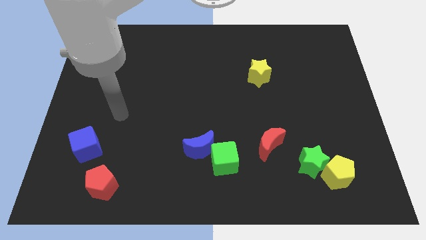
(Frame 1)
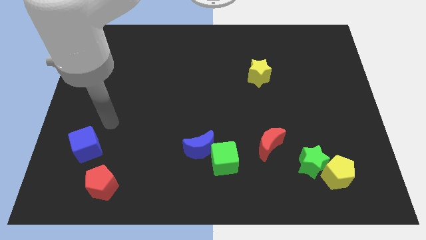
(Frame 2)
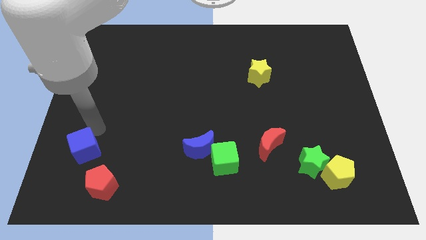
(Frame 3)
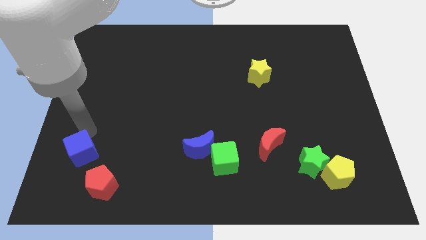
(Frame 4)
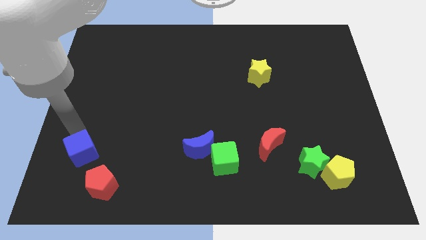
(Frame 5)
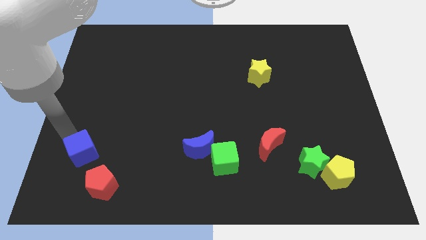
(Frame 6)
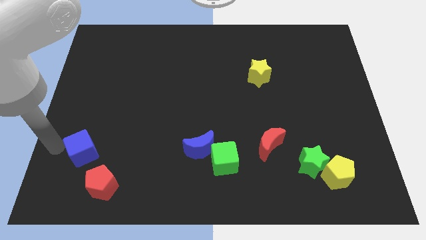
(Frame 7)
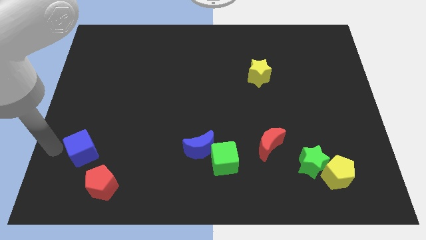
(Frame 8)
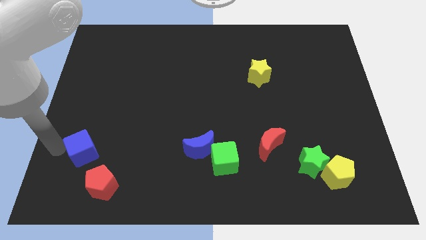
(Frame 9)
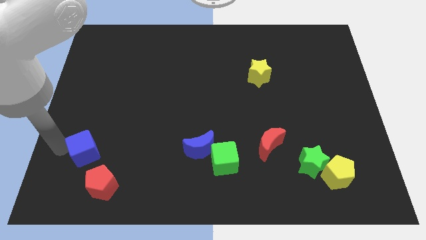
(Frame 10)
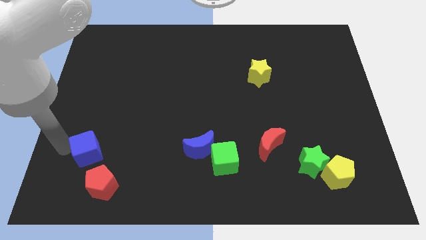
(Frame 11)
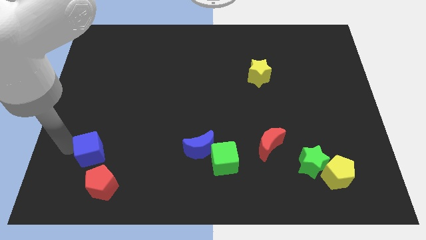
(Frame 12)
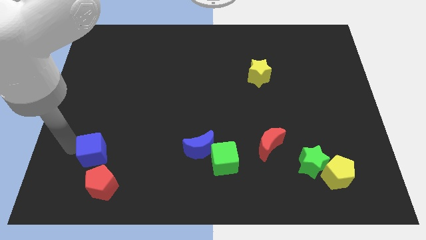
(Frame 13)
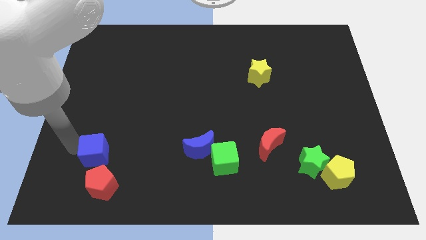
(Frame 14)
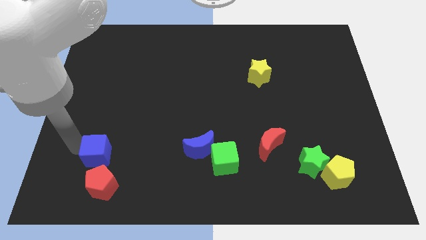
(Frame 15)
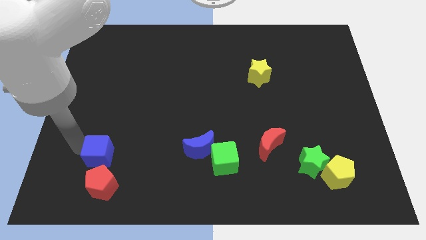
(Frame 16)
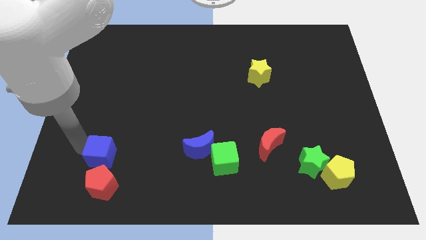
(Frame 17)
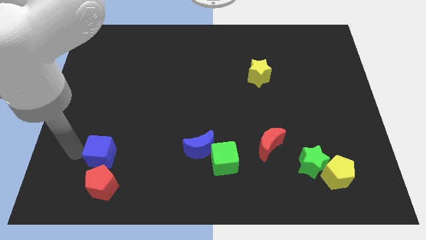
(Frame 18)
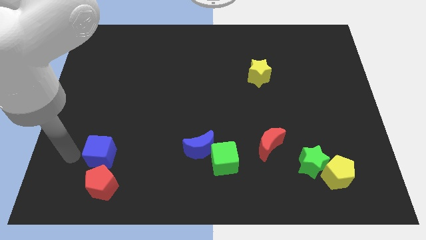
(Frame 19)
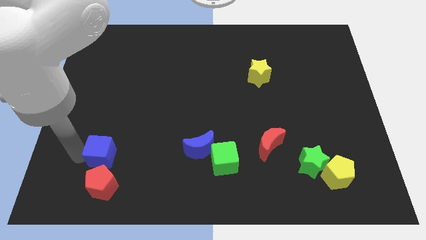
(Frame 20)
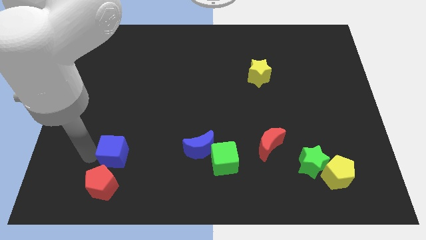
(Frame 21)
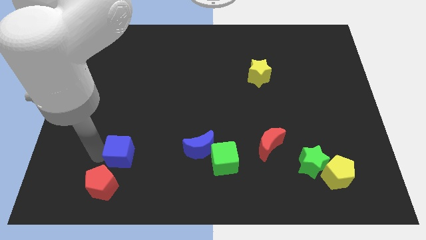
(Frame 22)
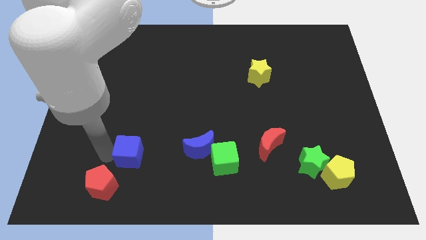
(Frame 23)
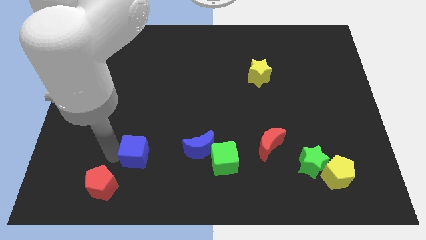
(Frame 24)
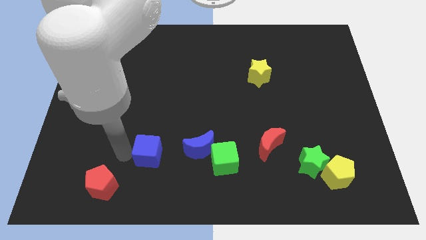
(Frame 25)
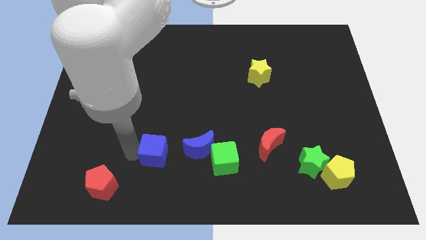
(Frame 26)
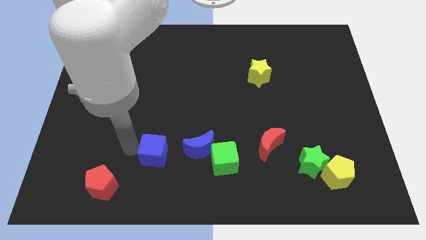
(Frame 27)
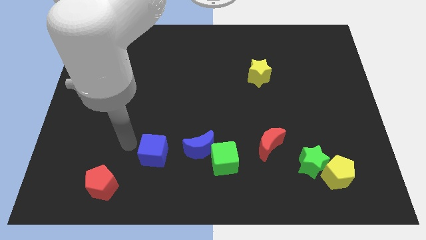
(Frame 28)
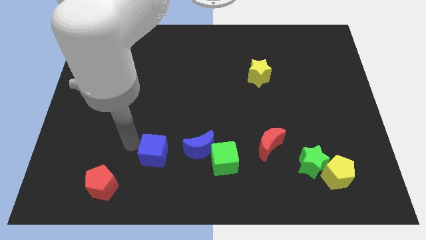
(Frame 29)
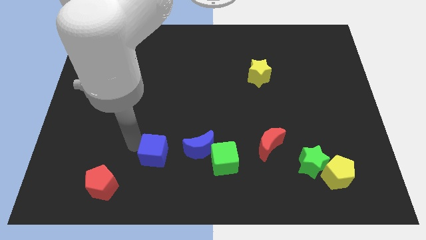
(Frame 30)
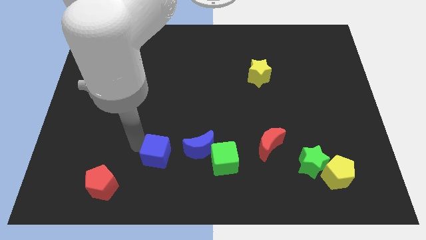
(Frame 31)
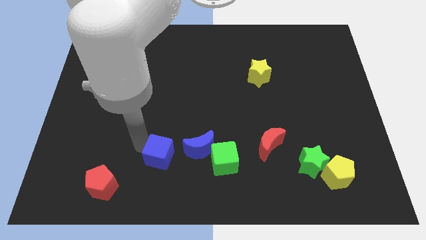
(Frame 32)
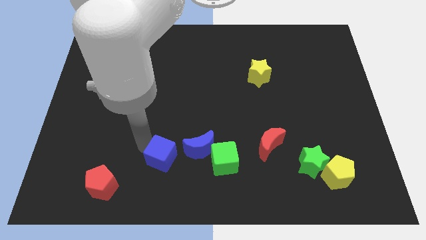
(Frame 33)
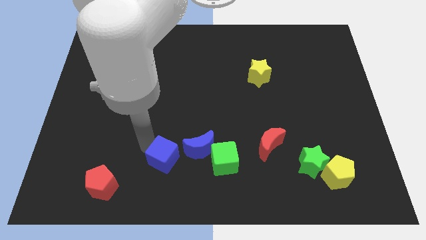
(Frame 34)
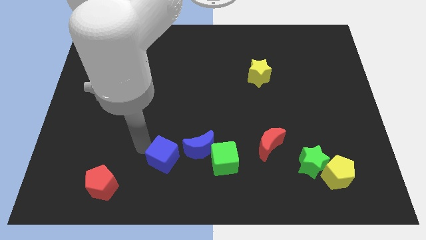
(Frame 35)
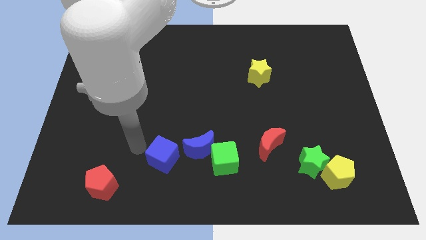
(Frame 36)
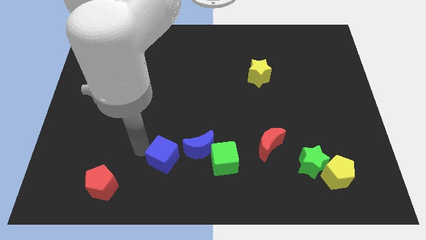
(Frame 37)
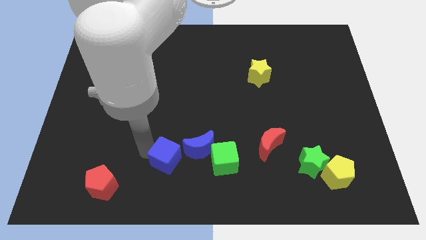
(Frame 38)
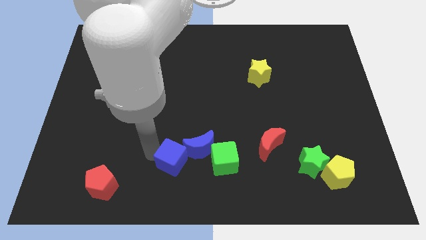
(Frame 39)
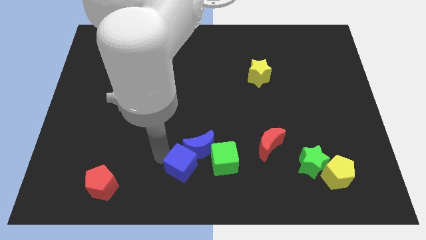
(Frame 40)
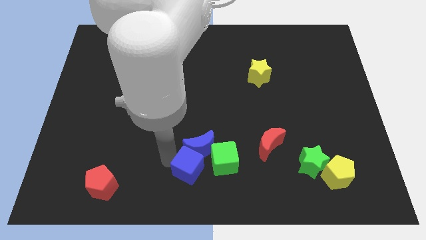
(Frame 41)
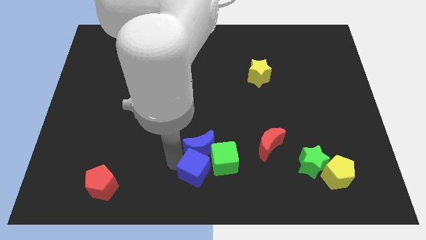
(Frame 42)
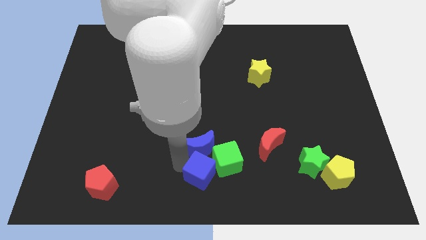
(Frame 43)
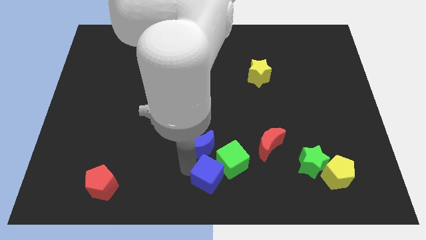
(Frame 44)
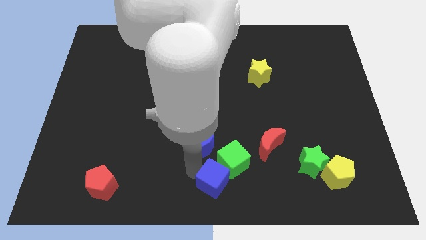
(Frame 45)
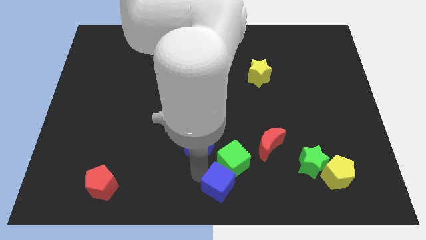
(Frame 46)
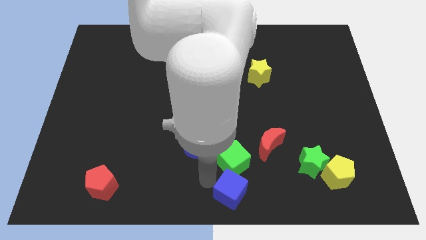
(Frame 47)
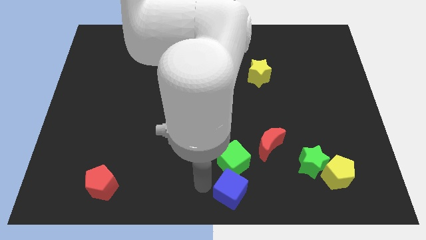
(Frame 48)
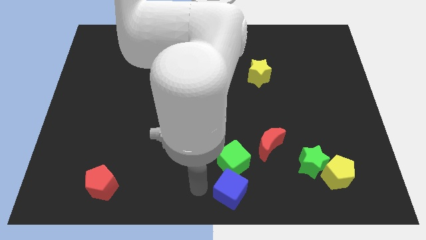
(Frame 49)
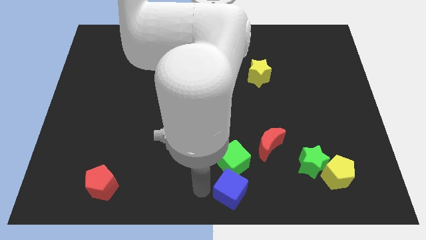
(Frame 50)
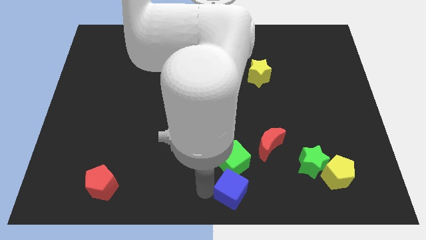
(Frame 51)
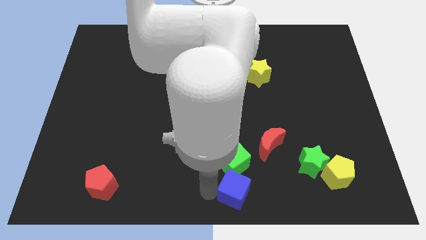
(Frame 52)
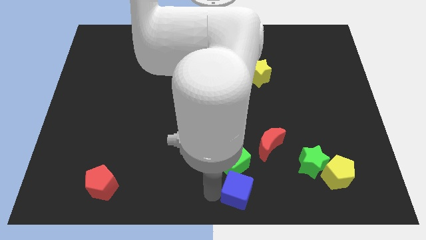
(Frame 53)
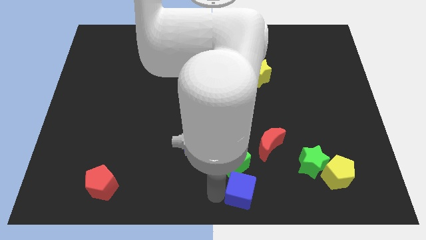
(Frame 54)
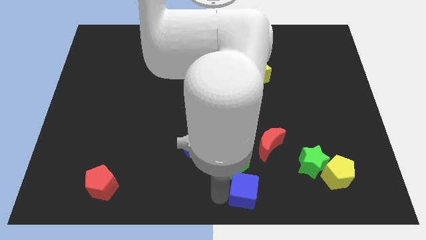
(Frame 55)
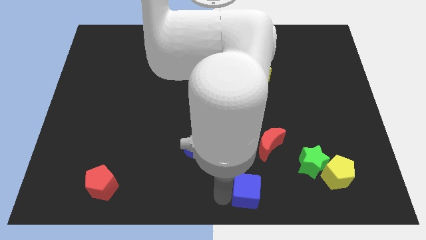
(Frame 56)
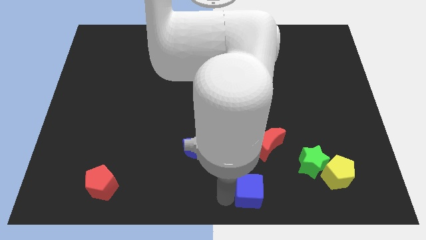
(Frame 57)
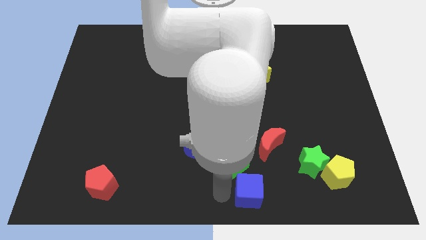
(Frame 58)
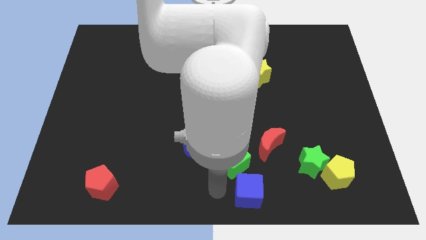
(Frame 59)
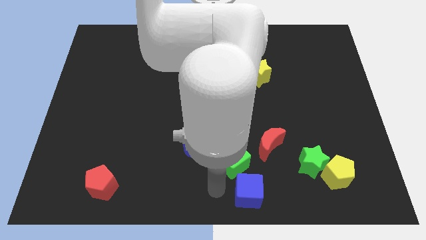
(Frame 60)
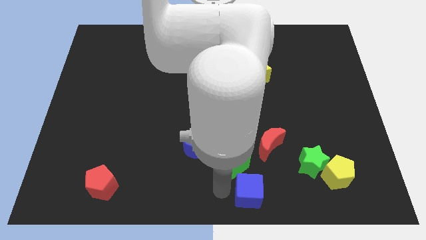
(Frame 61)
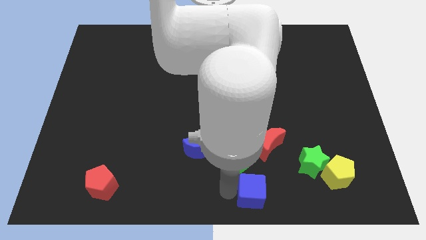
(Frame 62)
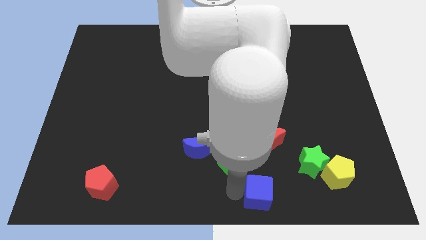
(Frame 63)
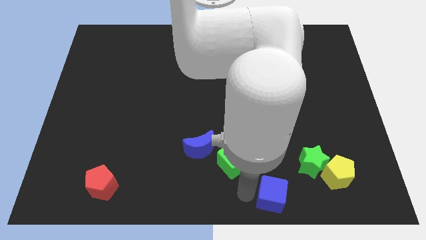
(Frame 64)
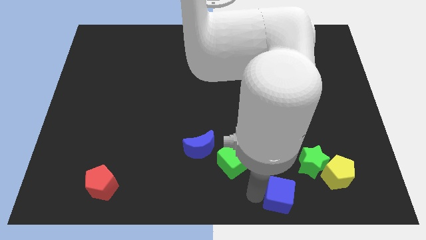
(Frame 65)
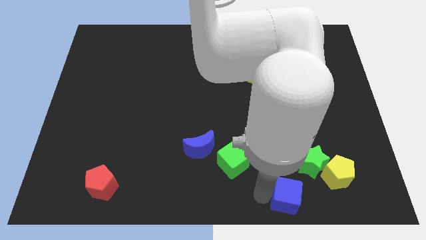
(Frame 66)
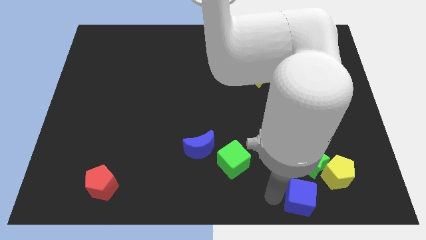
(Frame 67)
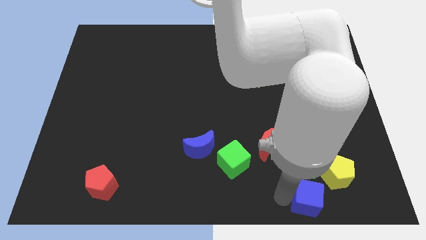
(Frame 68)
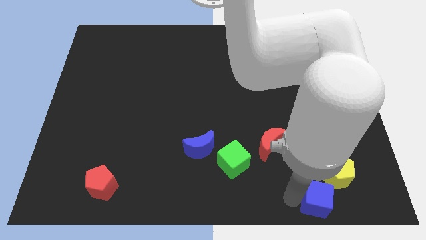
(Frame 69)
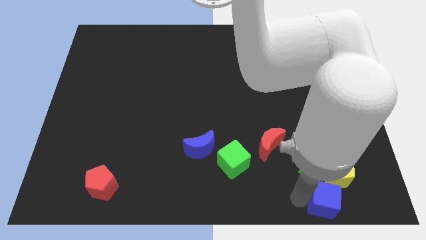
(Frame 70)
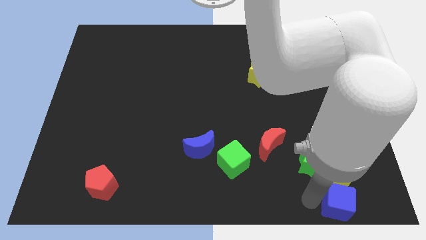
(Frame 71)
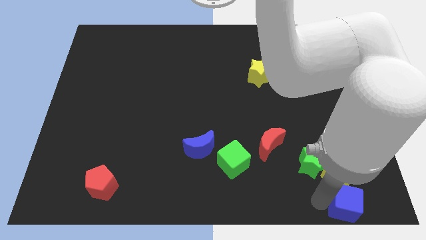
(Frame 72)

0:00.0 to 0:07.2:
move the blue cube to the bottom right

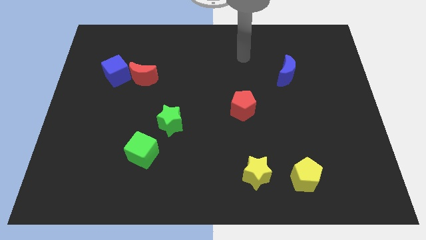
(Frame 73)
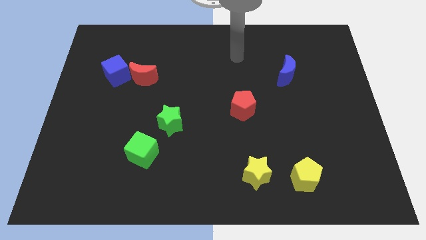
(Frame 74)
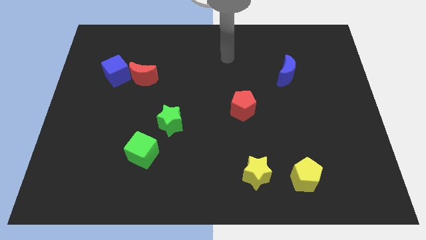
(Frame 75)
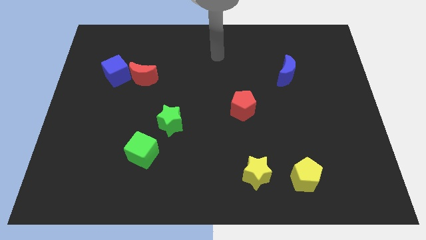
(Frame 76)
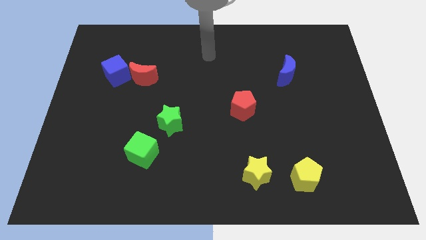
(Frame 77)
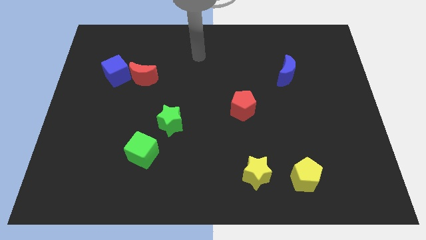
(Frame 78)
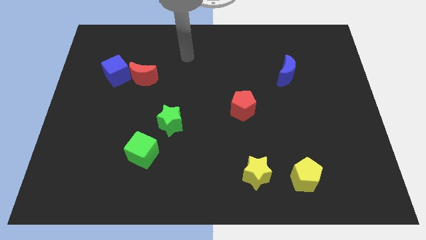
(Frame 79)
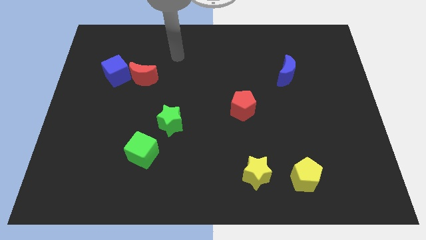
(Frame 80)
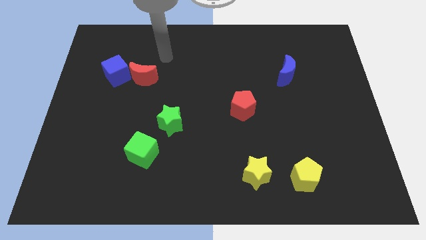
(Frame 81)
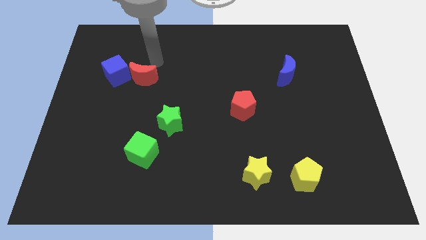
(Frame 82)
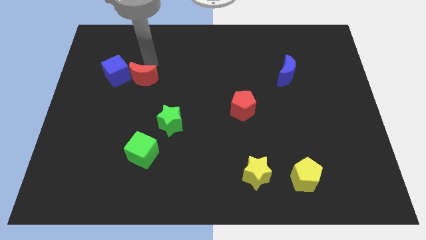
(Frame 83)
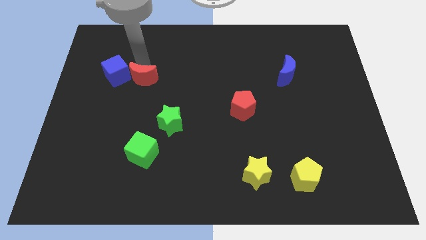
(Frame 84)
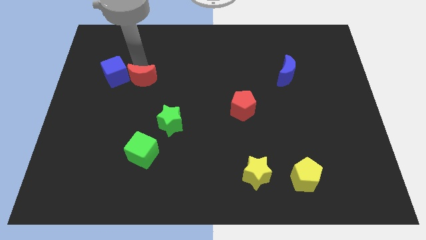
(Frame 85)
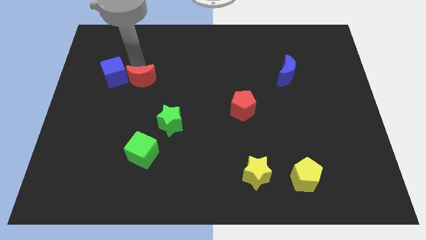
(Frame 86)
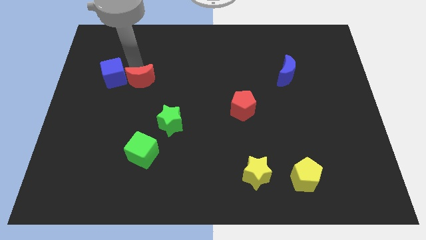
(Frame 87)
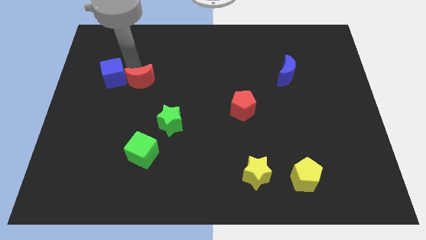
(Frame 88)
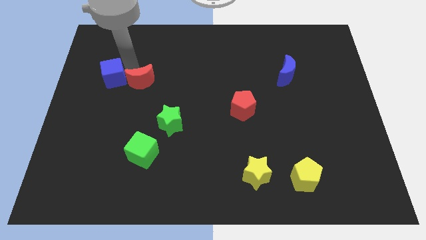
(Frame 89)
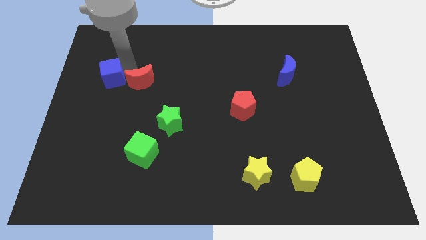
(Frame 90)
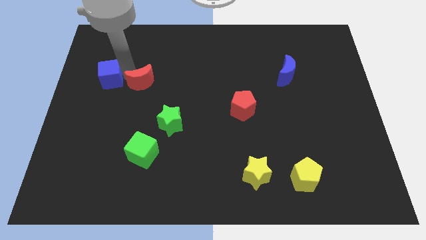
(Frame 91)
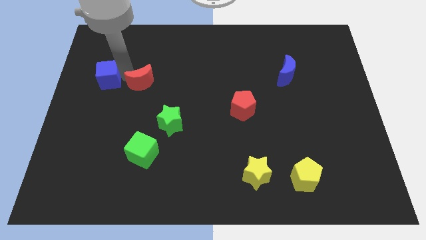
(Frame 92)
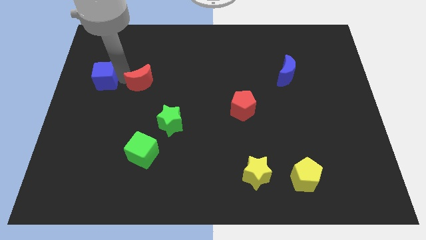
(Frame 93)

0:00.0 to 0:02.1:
put the blue cube to the left side
